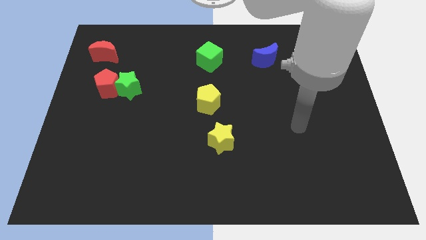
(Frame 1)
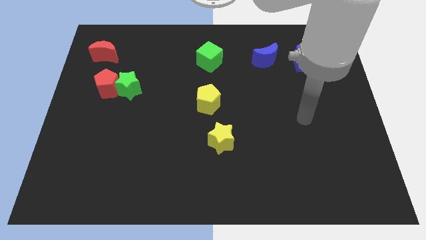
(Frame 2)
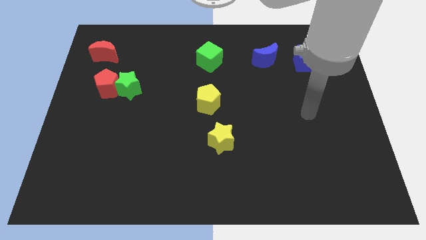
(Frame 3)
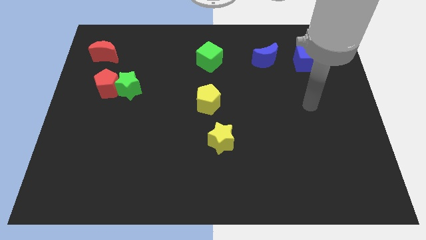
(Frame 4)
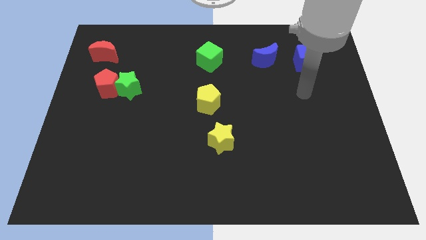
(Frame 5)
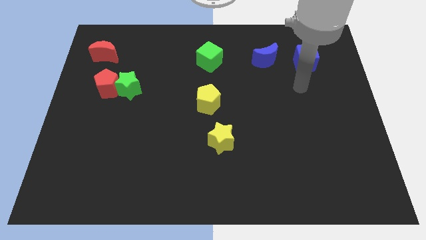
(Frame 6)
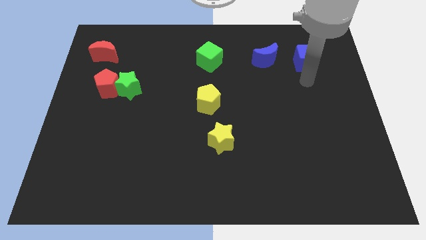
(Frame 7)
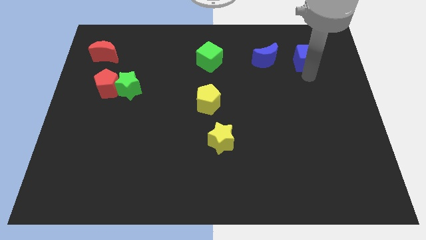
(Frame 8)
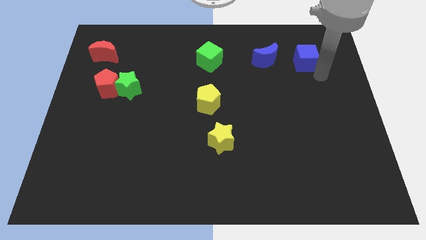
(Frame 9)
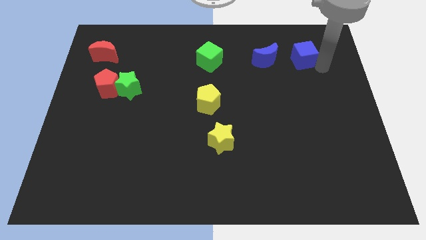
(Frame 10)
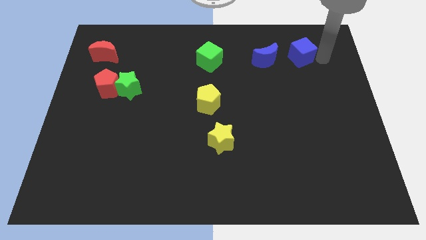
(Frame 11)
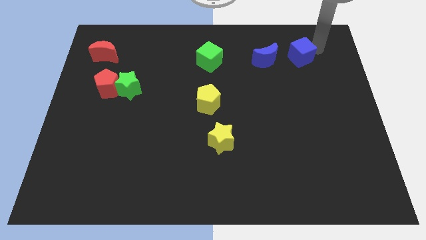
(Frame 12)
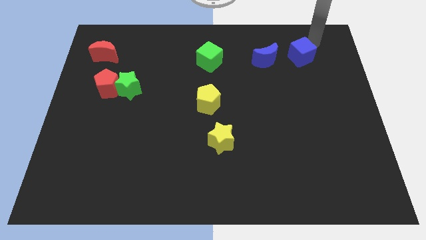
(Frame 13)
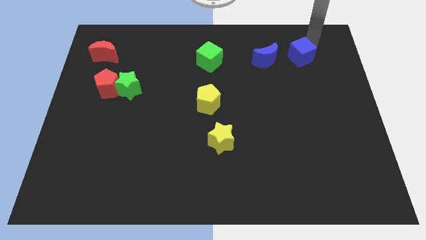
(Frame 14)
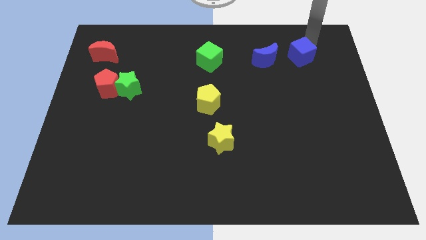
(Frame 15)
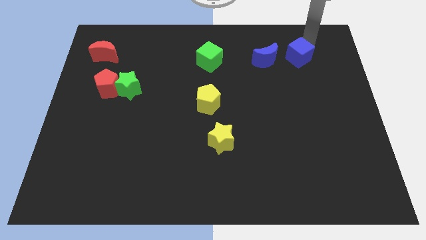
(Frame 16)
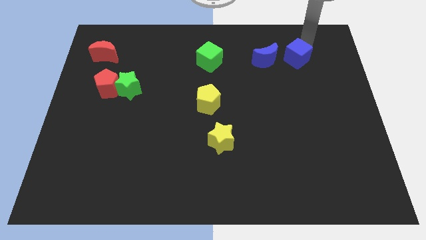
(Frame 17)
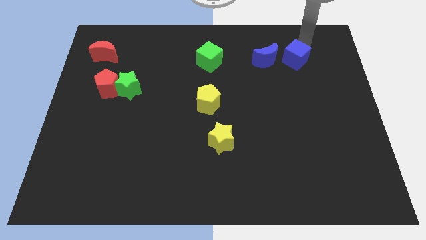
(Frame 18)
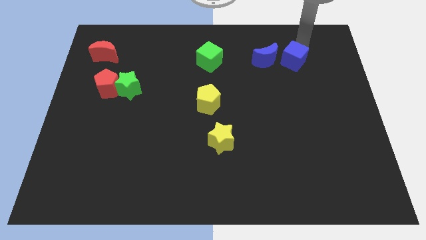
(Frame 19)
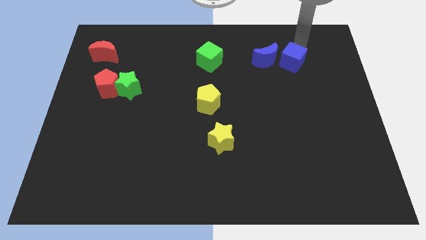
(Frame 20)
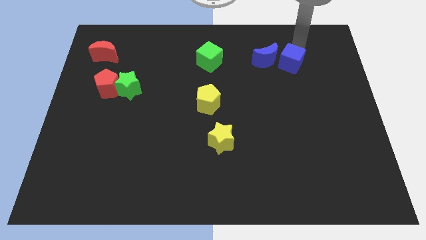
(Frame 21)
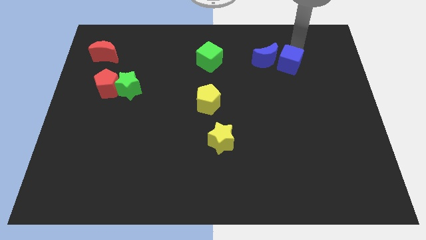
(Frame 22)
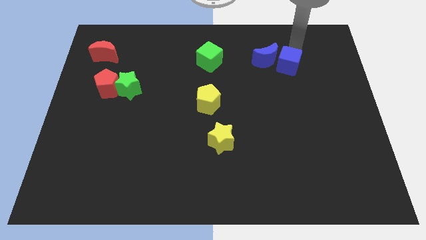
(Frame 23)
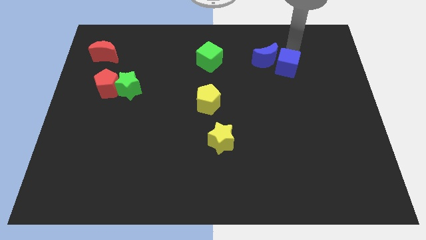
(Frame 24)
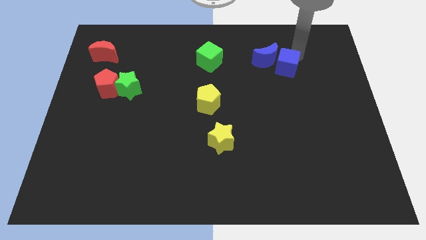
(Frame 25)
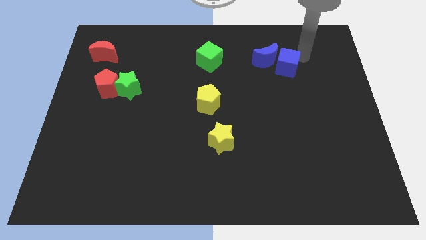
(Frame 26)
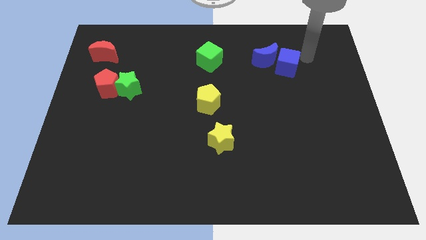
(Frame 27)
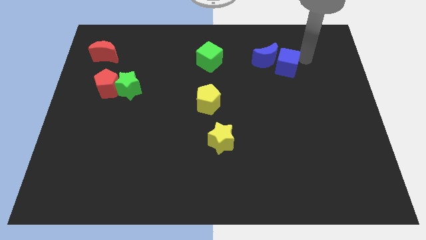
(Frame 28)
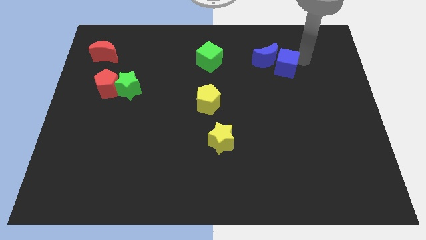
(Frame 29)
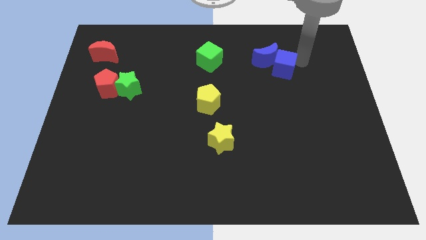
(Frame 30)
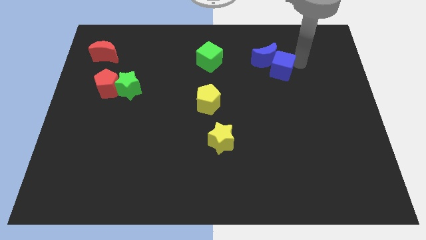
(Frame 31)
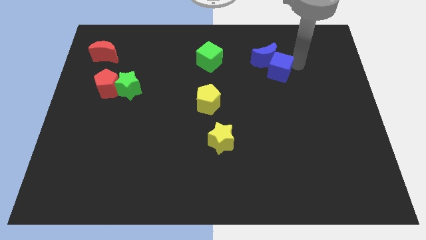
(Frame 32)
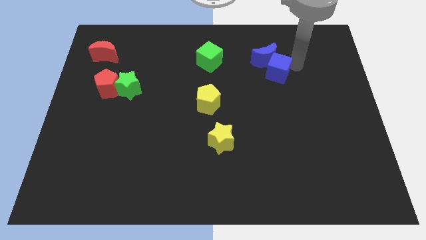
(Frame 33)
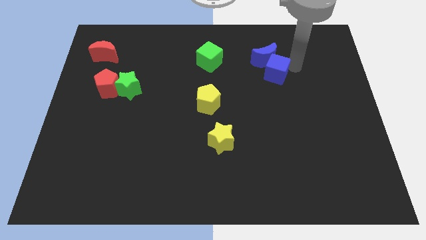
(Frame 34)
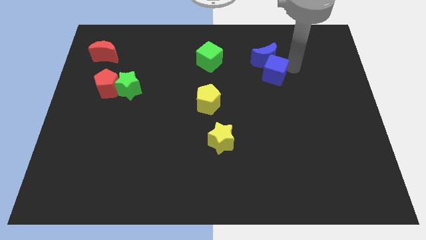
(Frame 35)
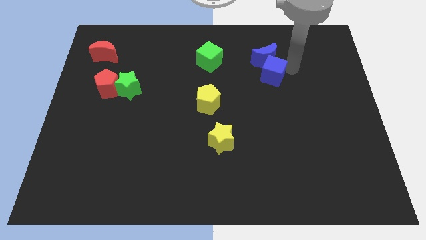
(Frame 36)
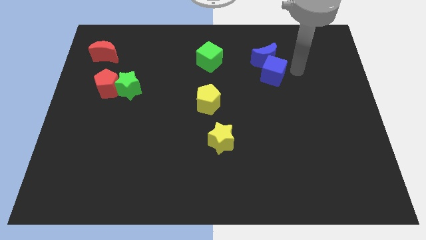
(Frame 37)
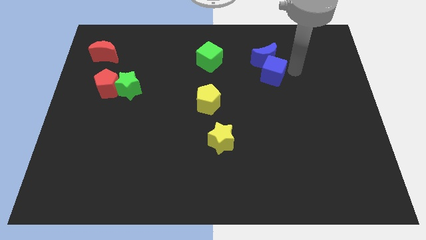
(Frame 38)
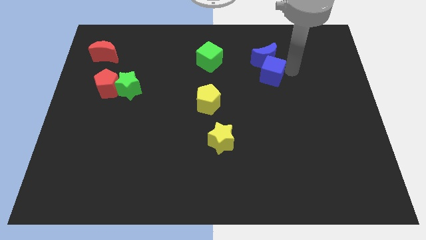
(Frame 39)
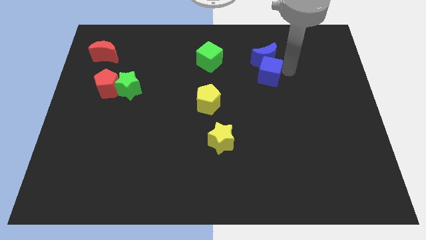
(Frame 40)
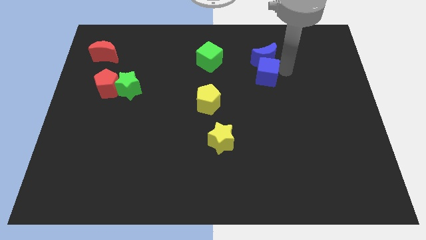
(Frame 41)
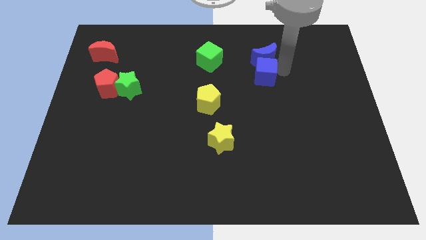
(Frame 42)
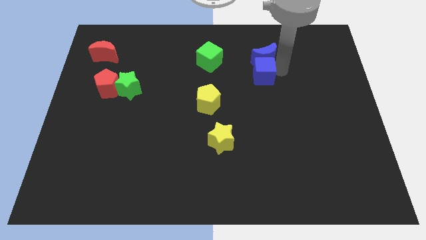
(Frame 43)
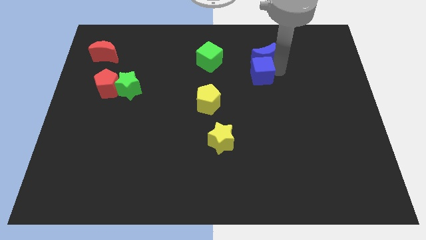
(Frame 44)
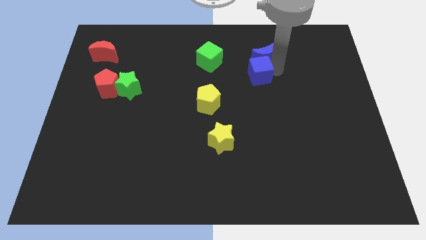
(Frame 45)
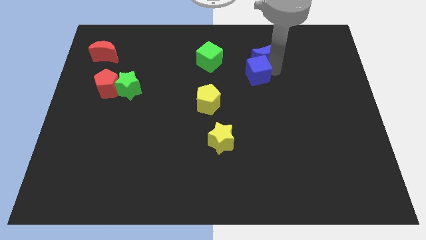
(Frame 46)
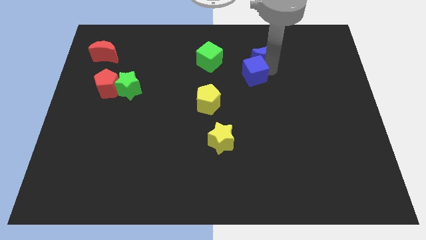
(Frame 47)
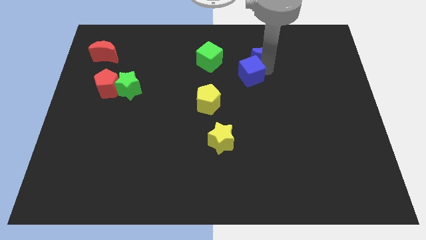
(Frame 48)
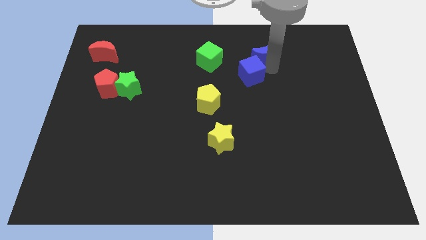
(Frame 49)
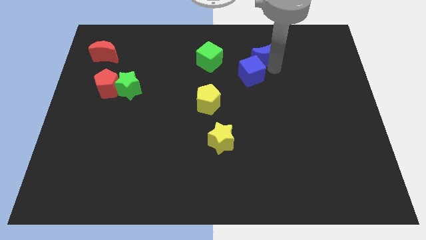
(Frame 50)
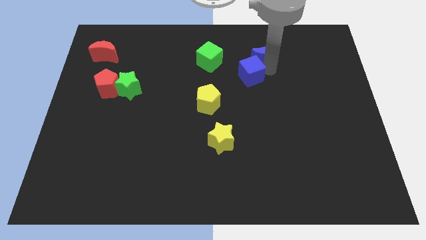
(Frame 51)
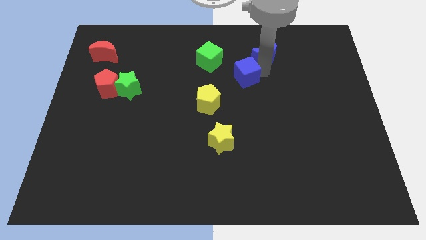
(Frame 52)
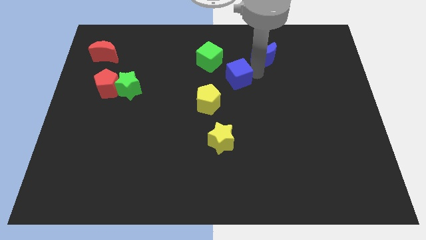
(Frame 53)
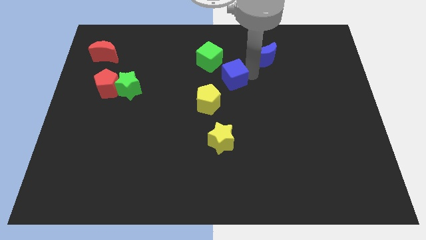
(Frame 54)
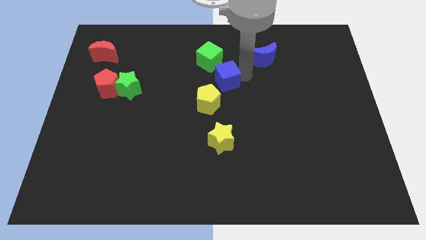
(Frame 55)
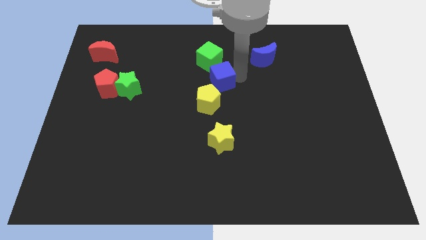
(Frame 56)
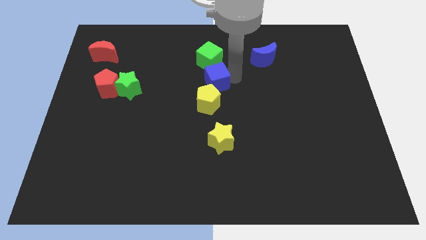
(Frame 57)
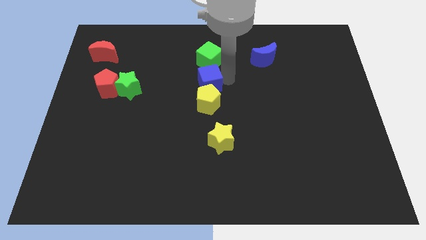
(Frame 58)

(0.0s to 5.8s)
put the blue cube to the top left side of the yellow pentagon
